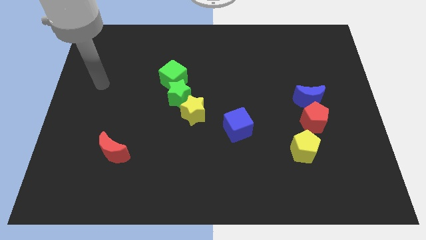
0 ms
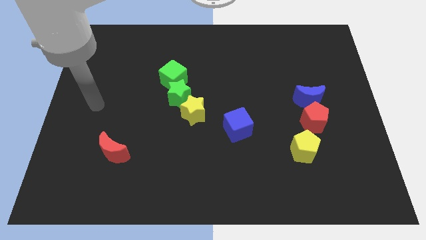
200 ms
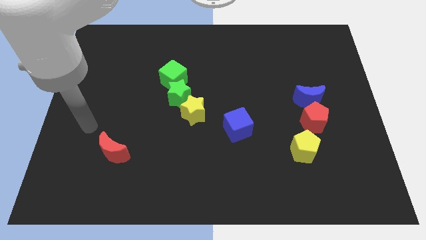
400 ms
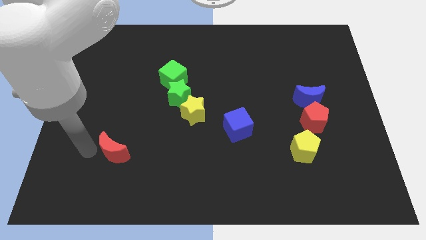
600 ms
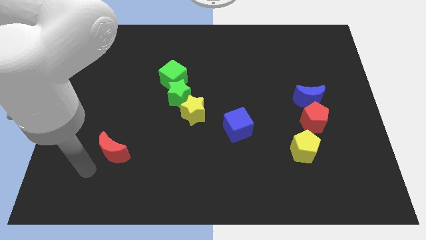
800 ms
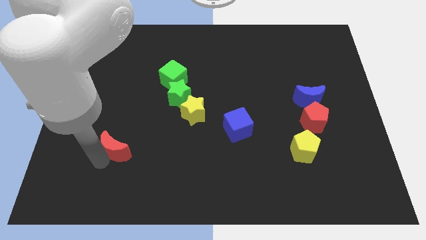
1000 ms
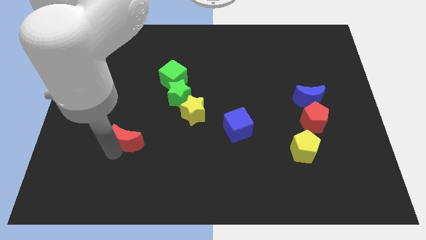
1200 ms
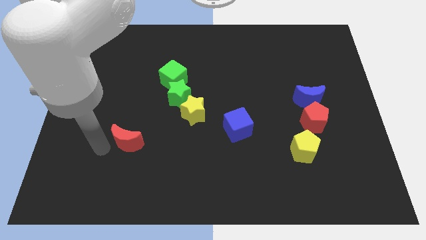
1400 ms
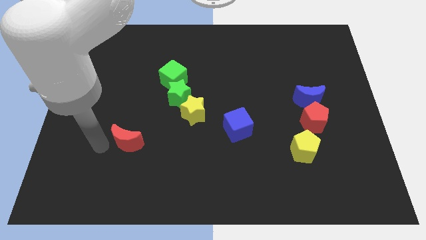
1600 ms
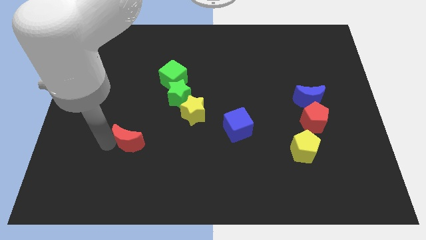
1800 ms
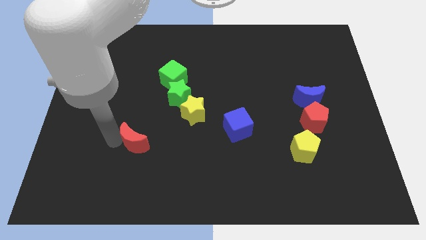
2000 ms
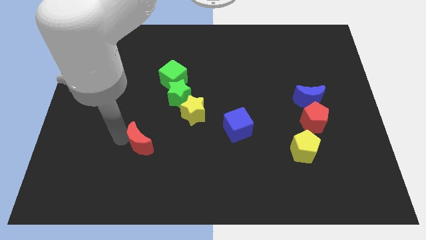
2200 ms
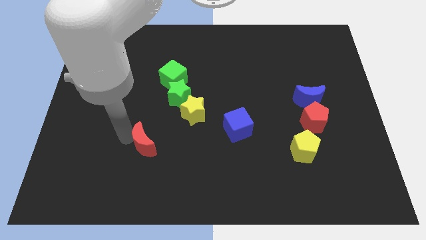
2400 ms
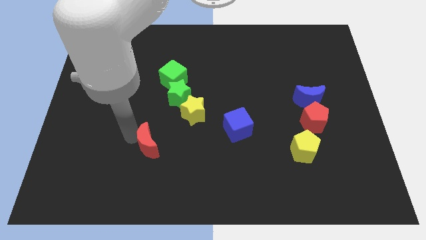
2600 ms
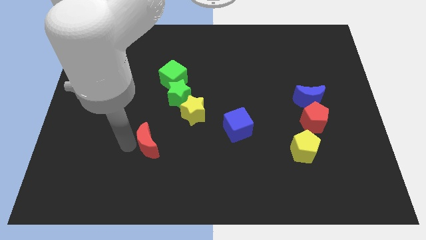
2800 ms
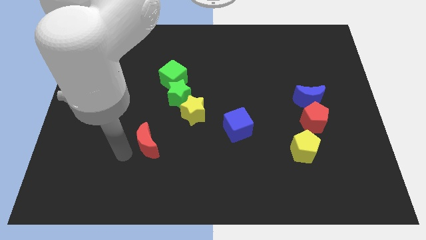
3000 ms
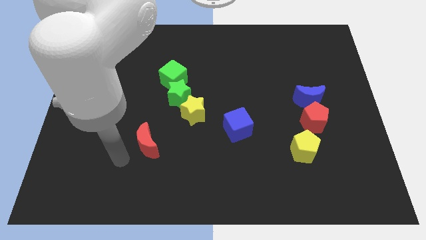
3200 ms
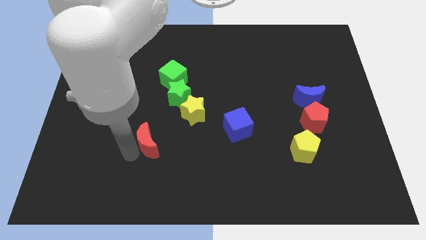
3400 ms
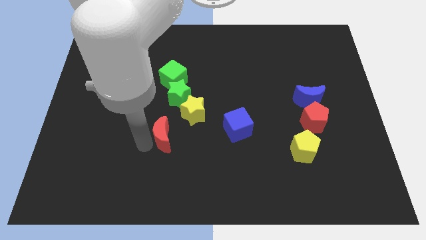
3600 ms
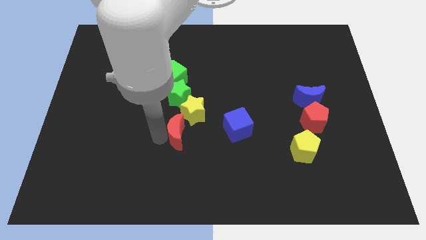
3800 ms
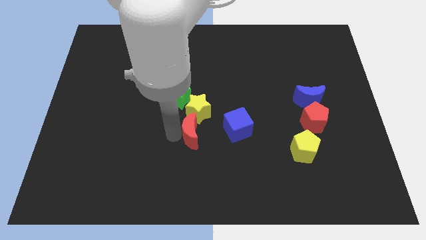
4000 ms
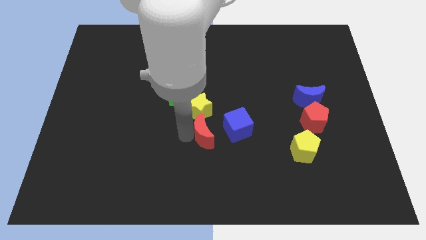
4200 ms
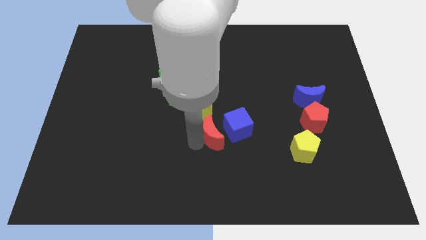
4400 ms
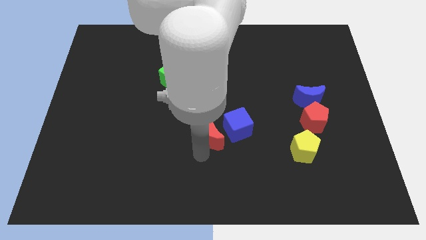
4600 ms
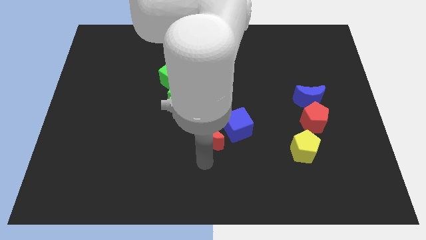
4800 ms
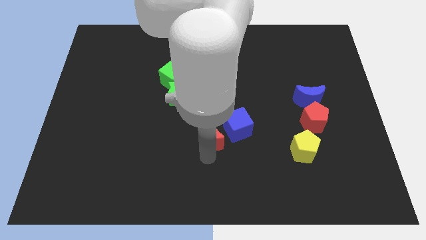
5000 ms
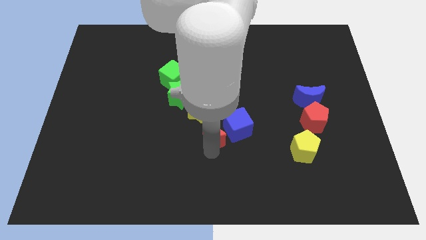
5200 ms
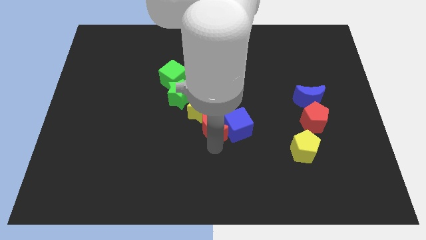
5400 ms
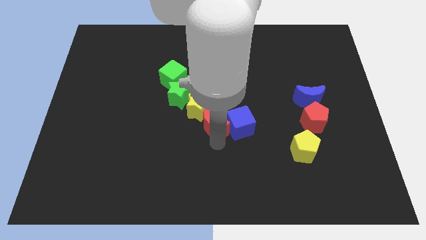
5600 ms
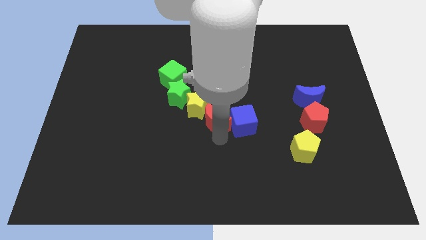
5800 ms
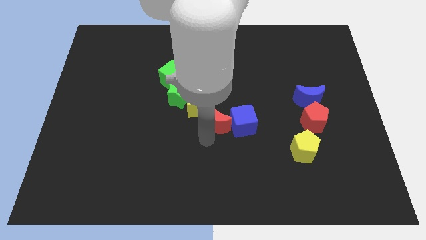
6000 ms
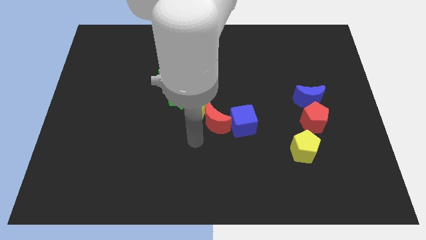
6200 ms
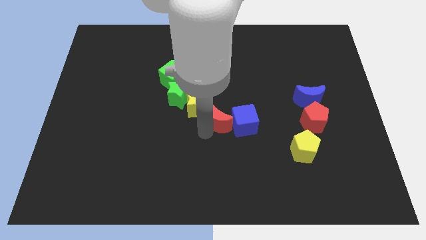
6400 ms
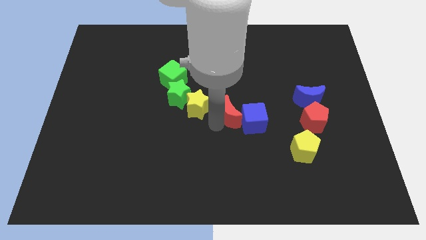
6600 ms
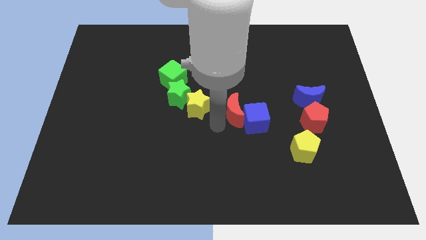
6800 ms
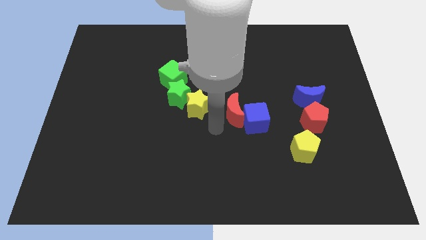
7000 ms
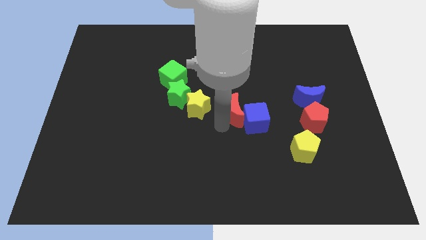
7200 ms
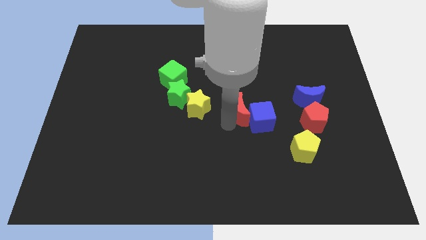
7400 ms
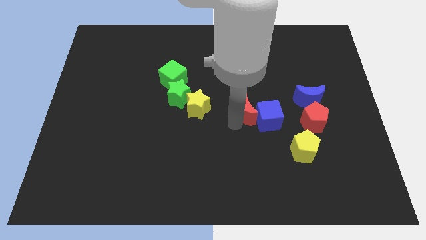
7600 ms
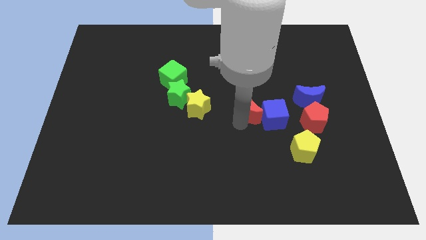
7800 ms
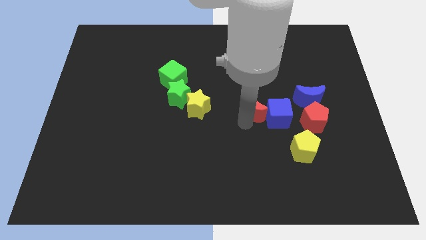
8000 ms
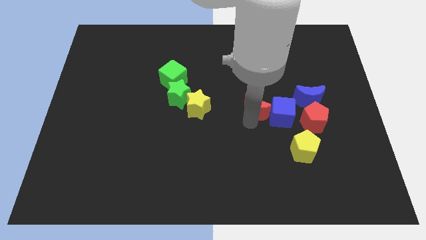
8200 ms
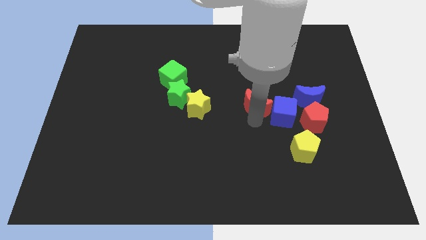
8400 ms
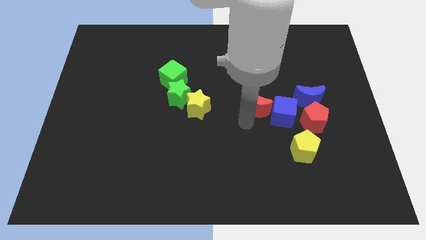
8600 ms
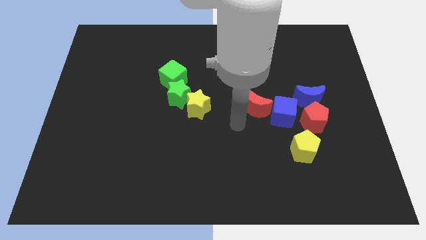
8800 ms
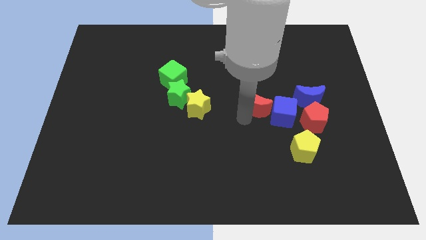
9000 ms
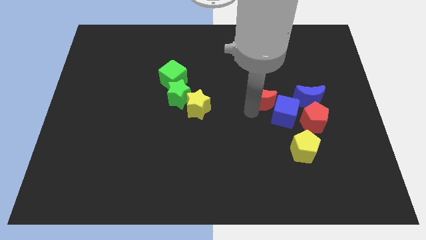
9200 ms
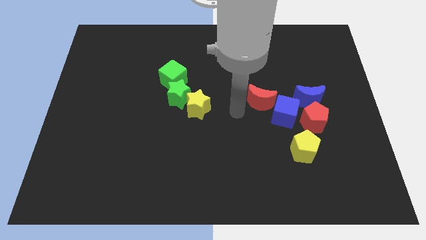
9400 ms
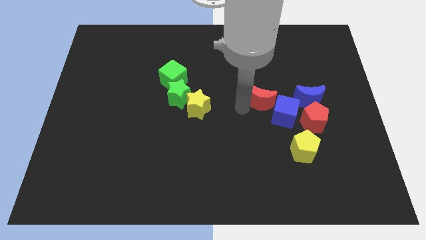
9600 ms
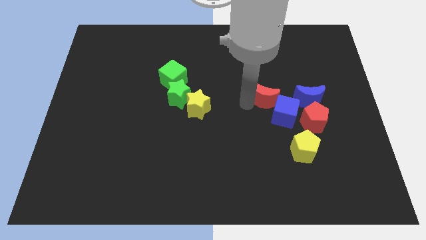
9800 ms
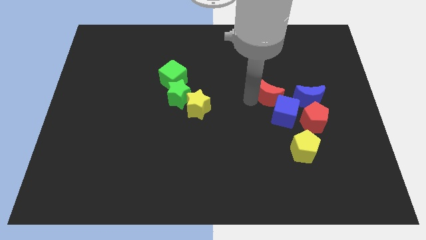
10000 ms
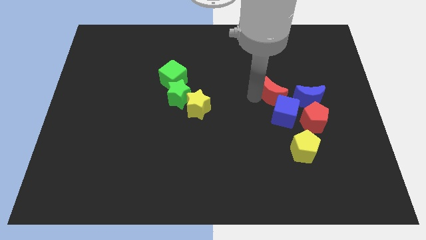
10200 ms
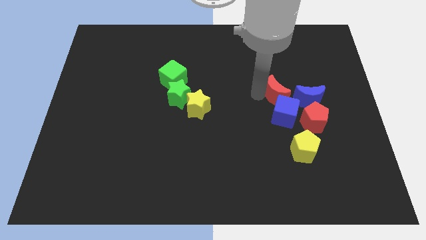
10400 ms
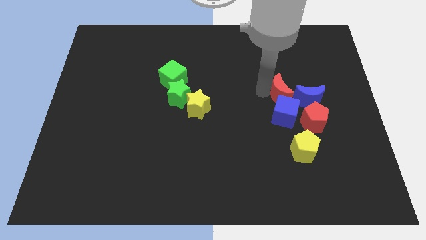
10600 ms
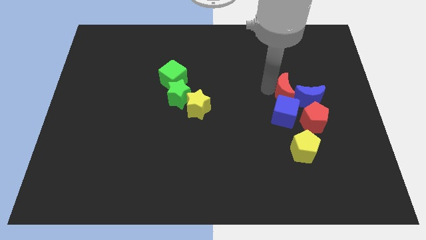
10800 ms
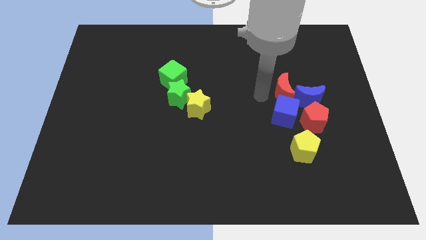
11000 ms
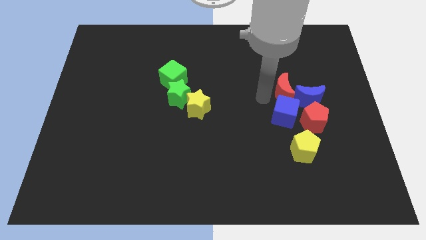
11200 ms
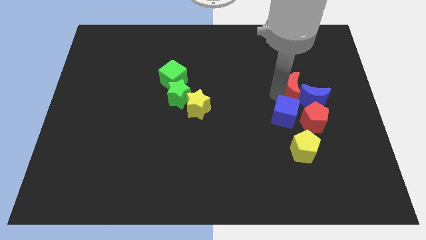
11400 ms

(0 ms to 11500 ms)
push the red moon to the top of the red pentagon
